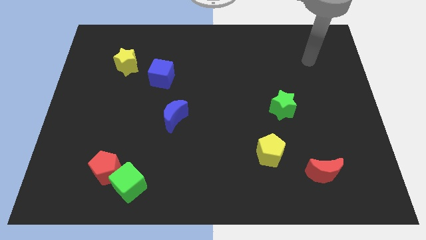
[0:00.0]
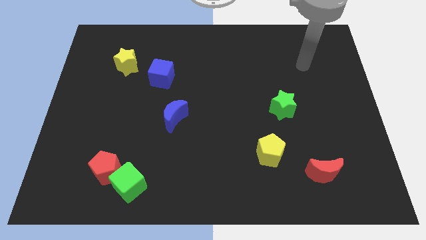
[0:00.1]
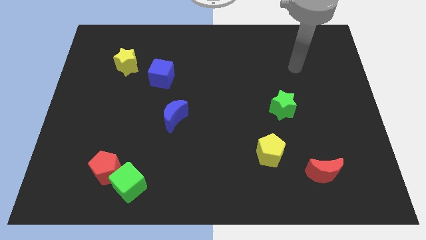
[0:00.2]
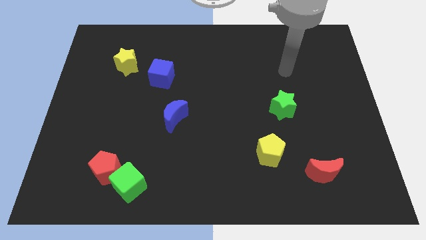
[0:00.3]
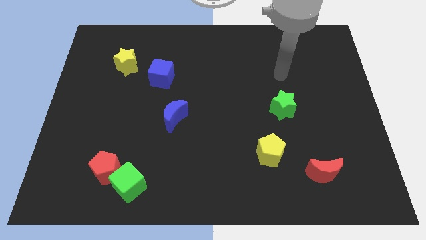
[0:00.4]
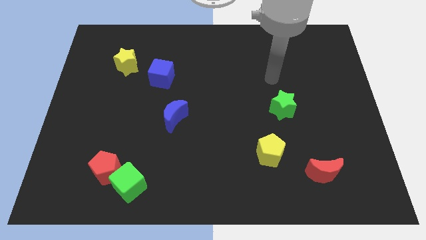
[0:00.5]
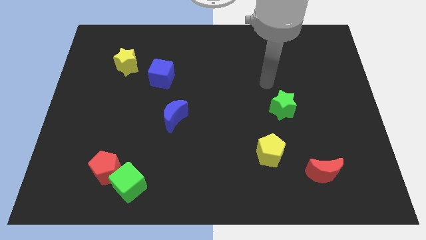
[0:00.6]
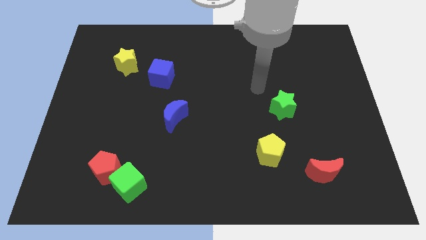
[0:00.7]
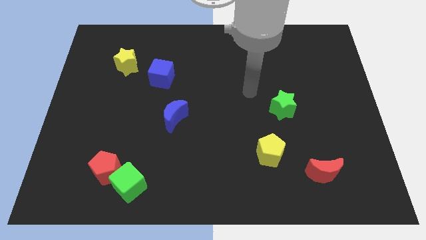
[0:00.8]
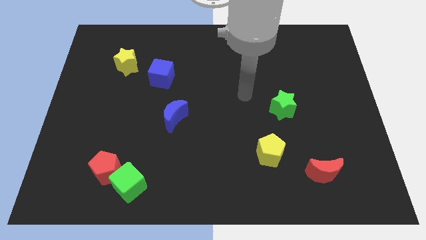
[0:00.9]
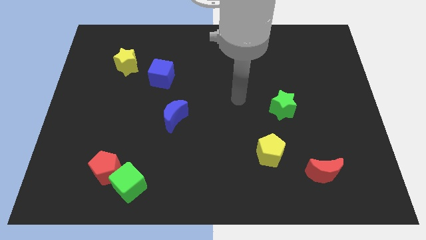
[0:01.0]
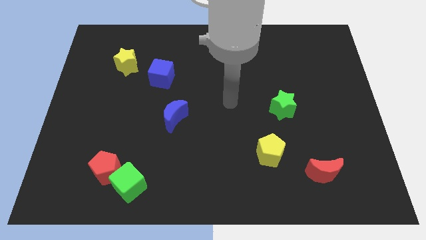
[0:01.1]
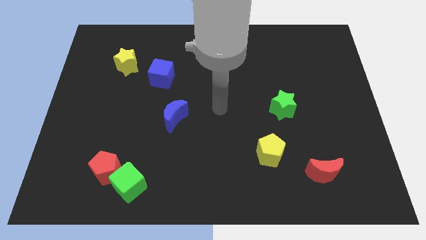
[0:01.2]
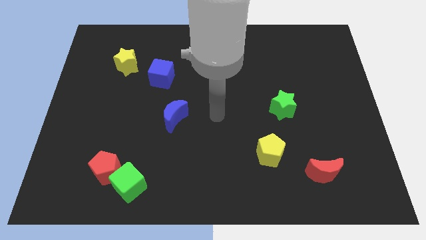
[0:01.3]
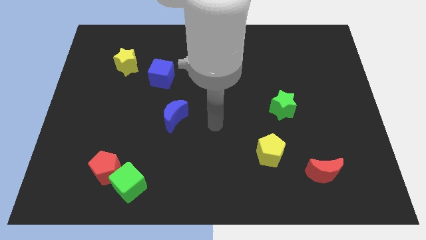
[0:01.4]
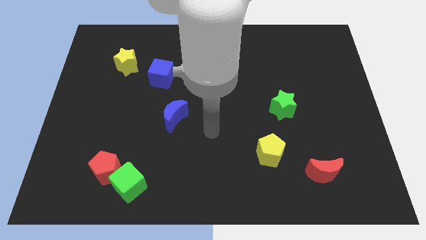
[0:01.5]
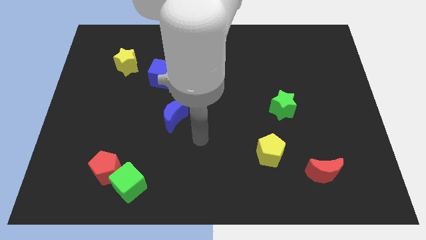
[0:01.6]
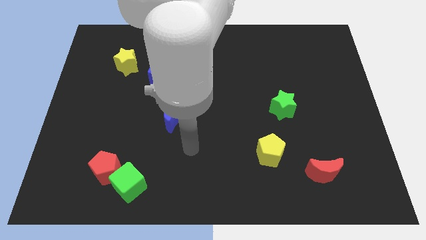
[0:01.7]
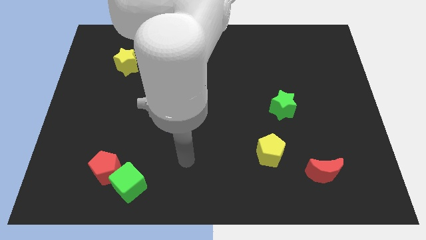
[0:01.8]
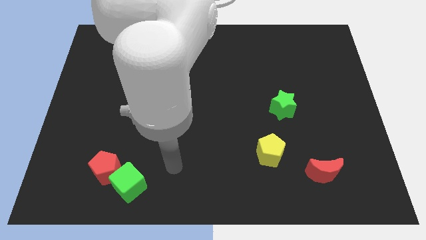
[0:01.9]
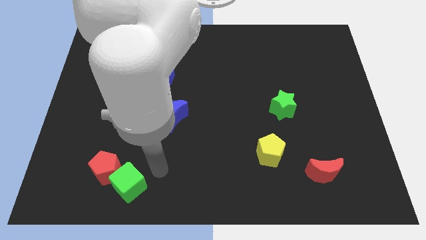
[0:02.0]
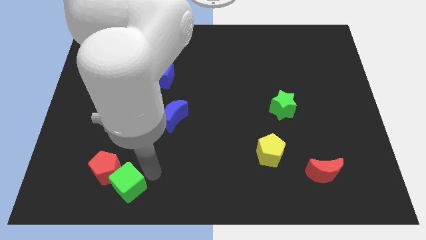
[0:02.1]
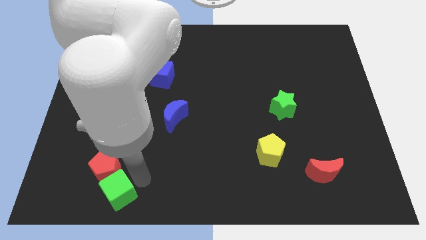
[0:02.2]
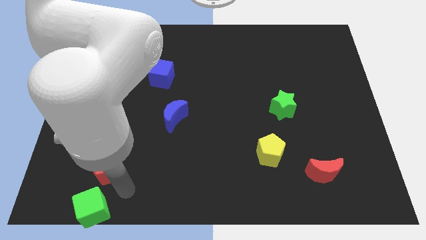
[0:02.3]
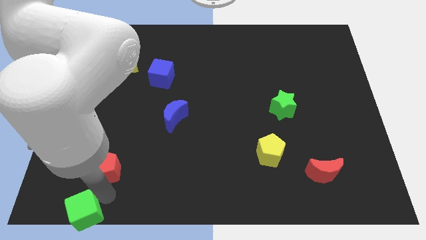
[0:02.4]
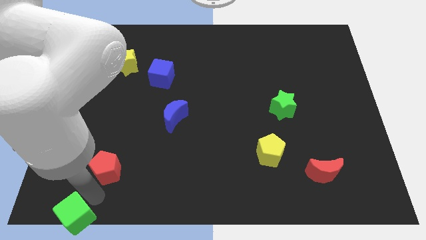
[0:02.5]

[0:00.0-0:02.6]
separate the red pentagon from the green cube

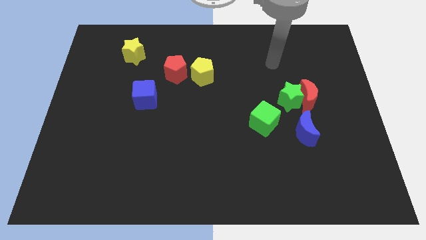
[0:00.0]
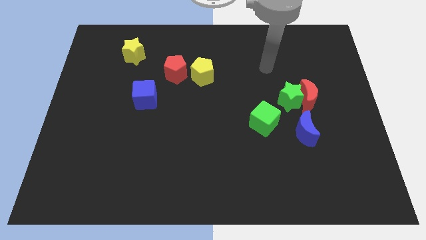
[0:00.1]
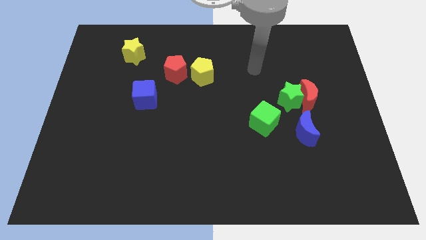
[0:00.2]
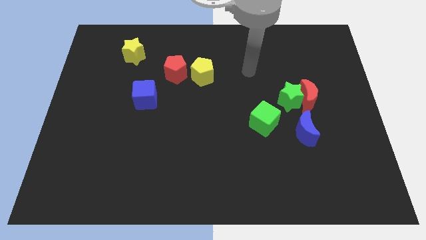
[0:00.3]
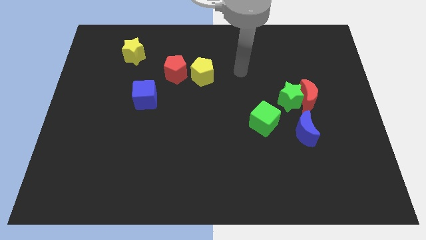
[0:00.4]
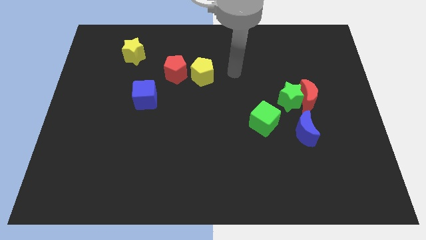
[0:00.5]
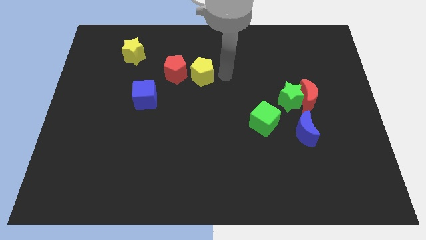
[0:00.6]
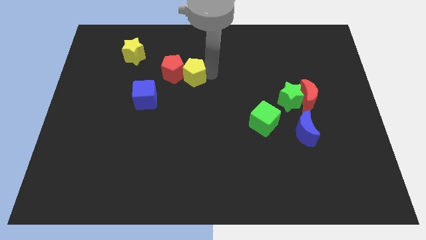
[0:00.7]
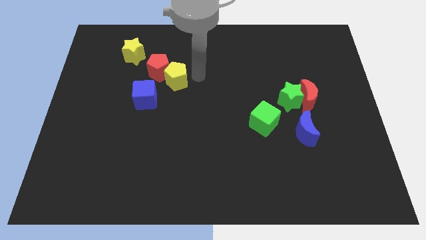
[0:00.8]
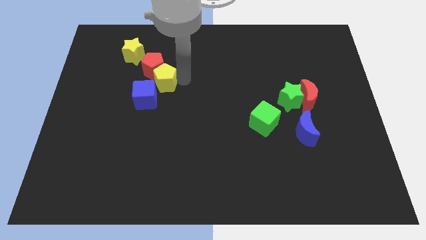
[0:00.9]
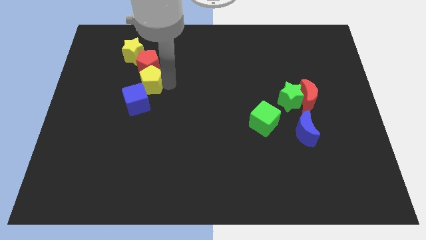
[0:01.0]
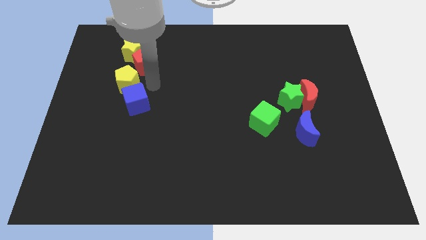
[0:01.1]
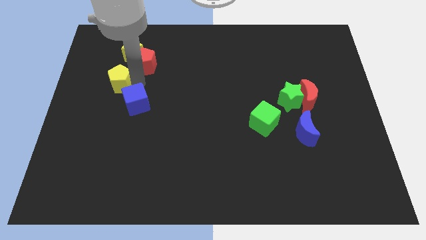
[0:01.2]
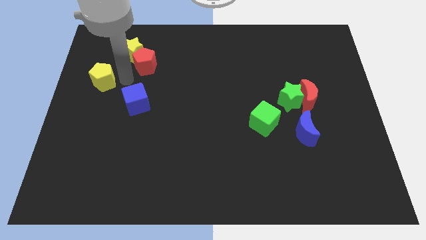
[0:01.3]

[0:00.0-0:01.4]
pull the red pentagon apart from the yellow pentagon

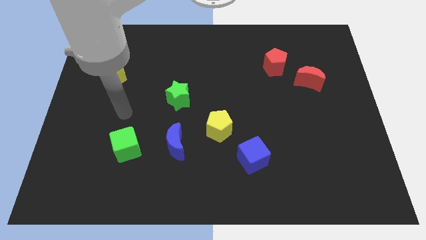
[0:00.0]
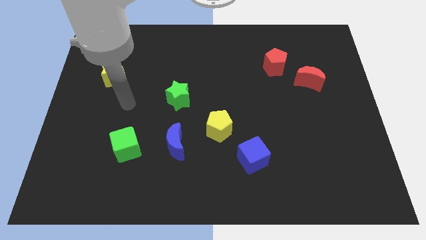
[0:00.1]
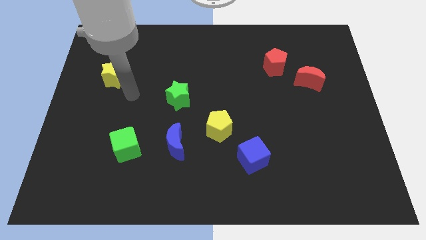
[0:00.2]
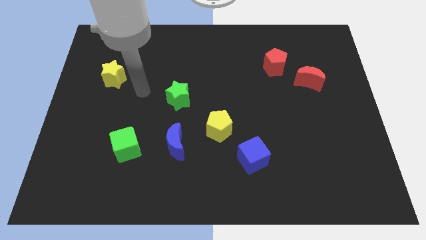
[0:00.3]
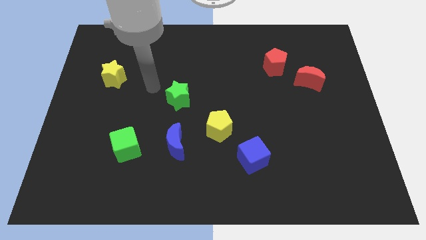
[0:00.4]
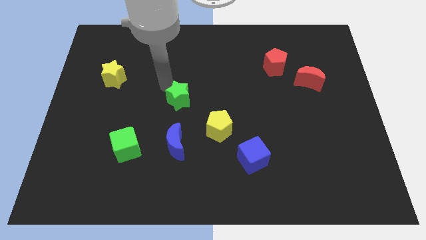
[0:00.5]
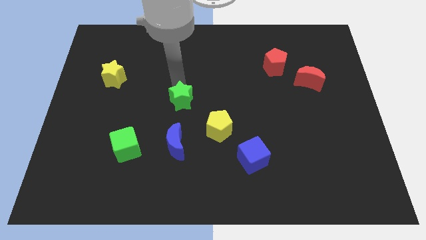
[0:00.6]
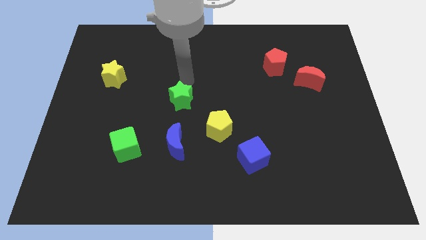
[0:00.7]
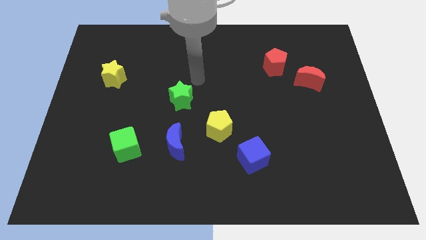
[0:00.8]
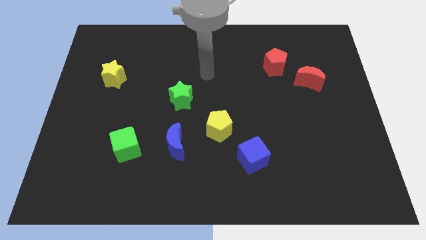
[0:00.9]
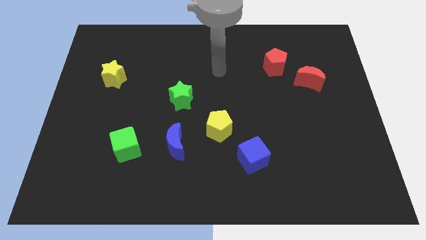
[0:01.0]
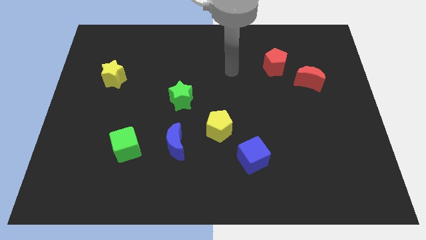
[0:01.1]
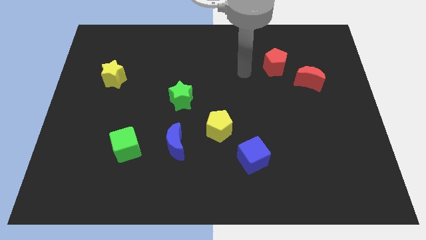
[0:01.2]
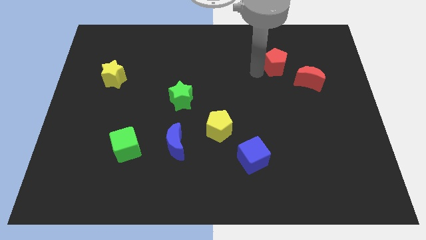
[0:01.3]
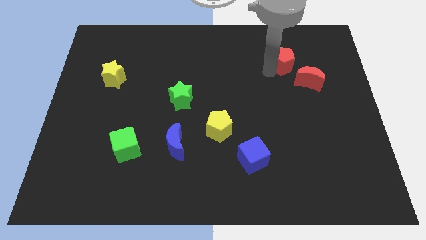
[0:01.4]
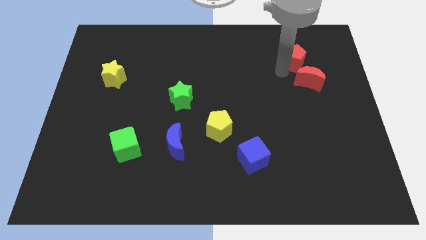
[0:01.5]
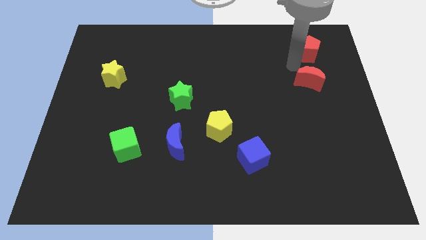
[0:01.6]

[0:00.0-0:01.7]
move the red moon away from the red pentagon

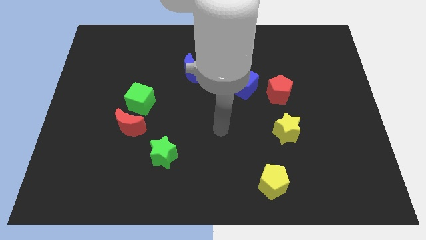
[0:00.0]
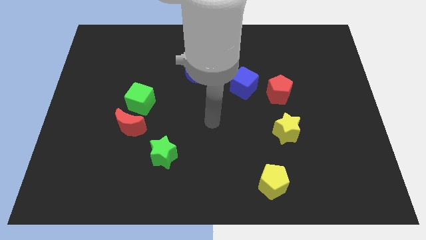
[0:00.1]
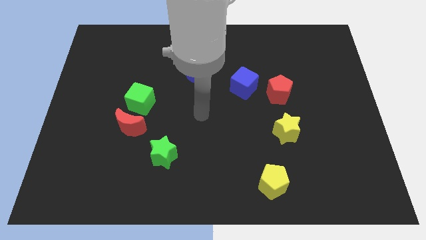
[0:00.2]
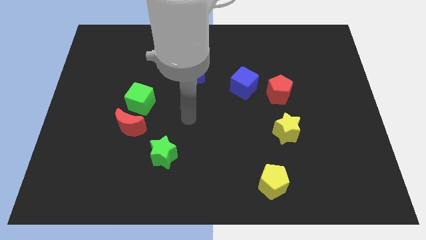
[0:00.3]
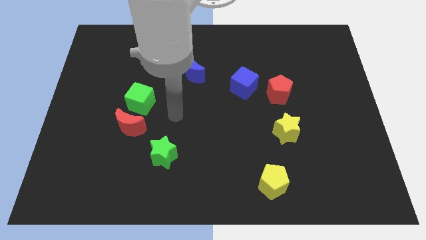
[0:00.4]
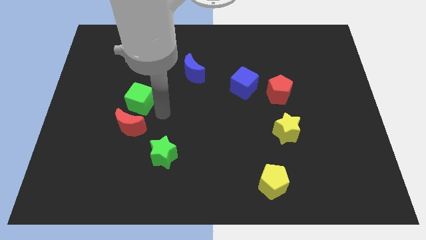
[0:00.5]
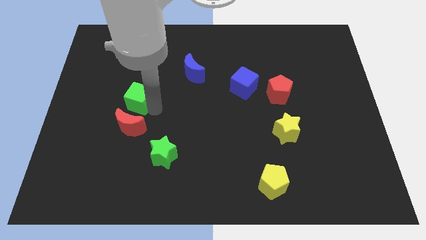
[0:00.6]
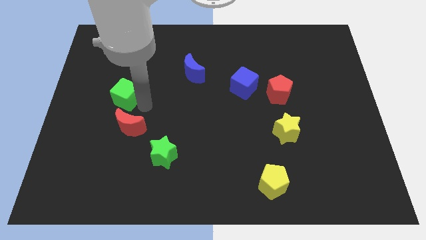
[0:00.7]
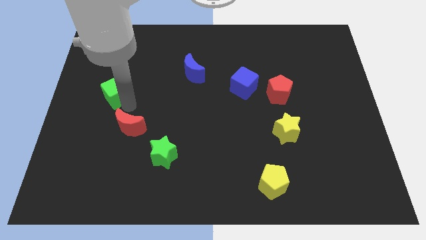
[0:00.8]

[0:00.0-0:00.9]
move the red moon away from the green cube

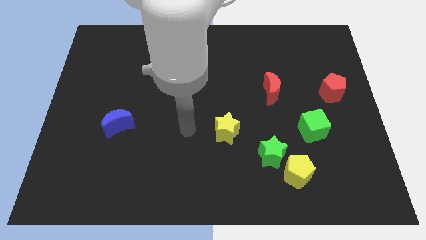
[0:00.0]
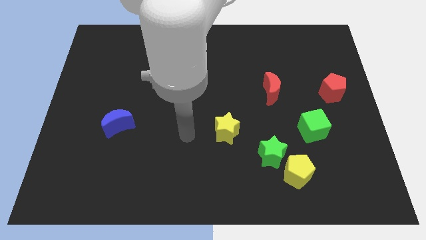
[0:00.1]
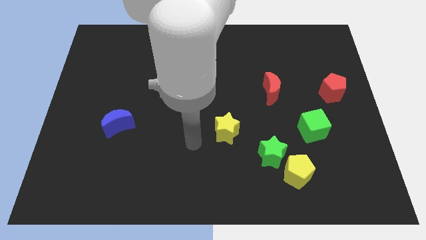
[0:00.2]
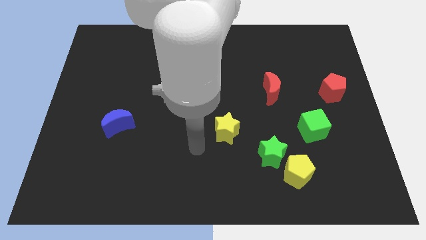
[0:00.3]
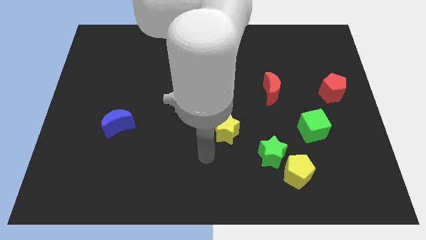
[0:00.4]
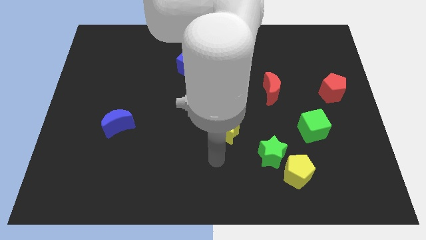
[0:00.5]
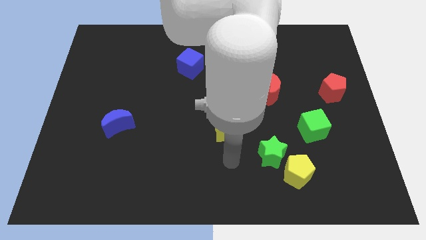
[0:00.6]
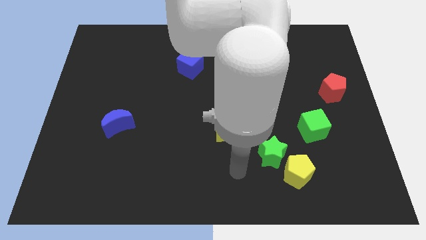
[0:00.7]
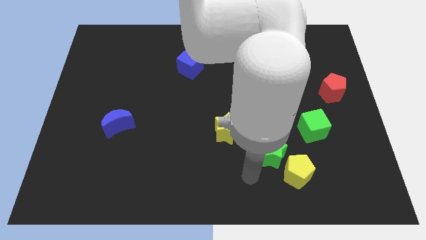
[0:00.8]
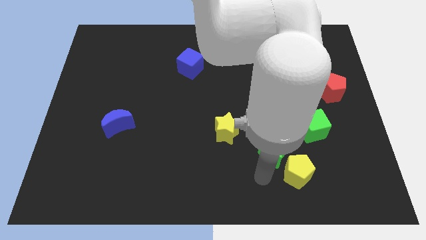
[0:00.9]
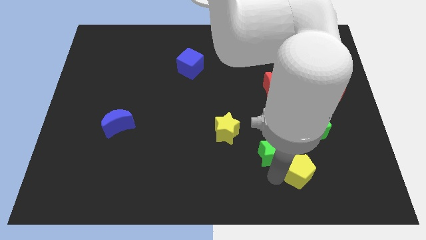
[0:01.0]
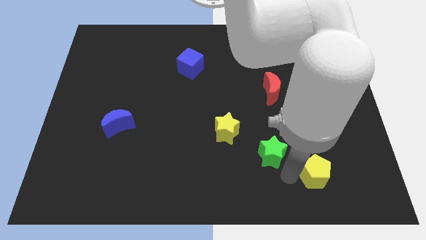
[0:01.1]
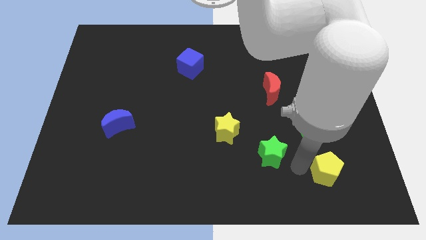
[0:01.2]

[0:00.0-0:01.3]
pull the green star apart from the yellow pentagon

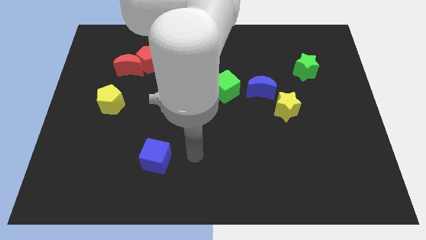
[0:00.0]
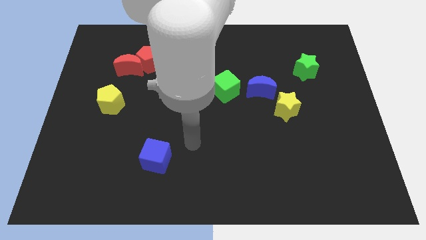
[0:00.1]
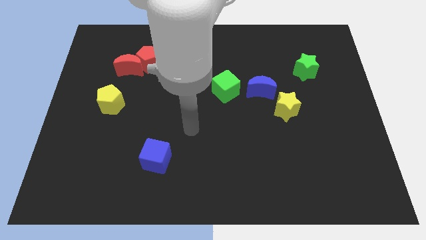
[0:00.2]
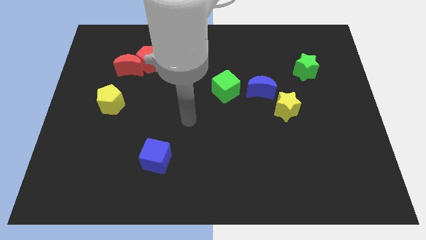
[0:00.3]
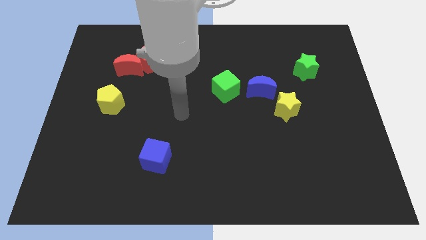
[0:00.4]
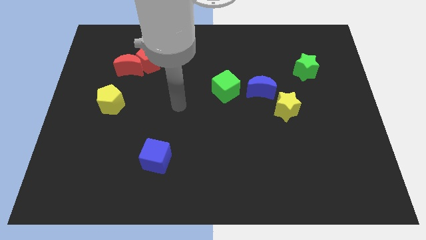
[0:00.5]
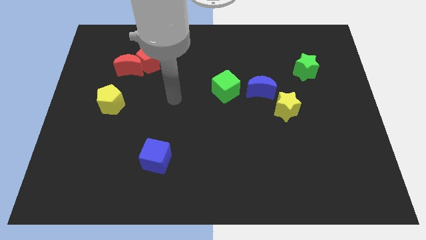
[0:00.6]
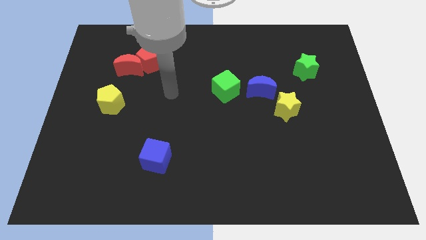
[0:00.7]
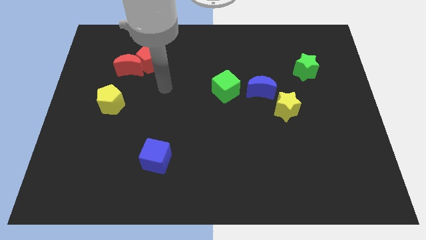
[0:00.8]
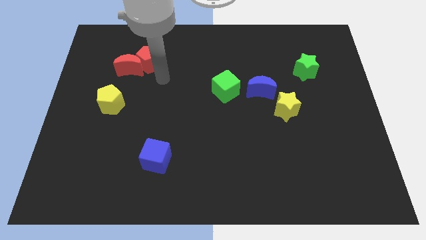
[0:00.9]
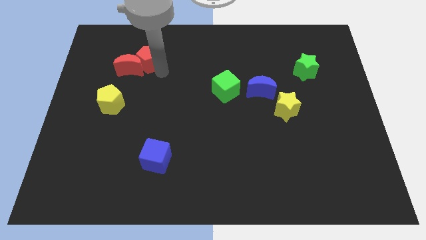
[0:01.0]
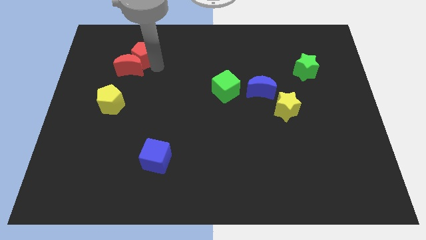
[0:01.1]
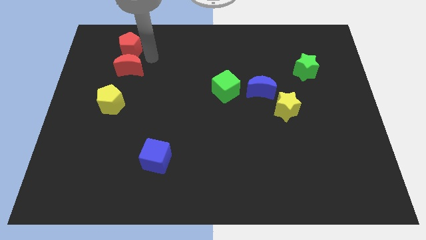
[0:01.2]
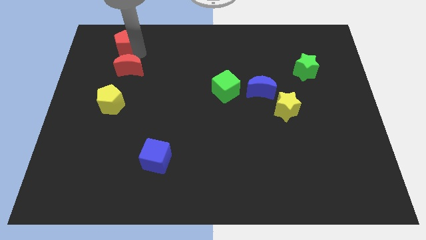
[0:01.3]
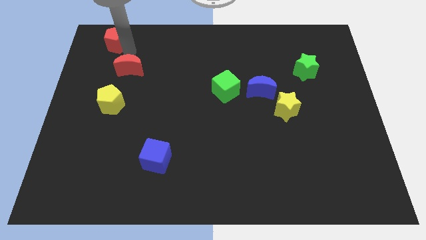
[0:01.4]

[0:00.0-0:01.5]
pull the red moon apart from the red pentagon
